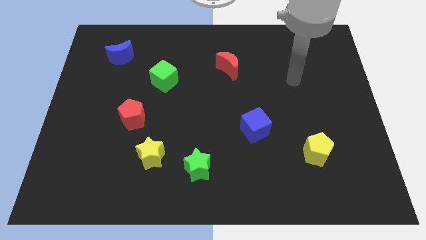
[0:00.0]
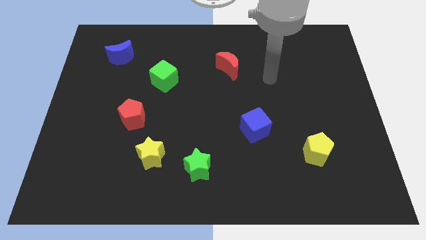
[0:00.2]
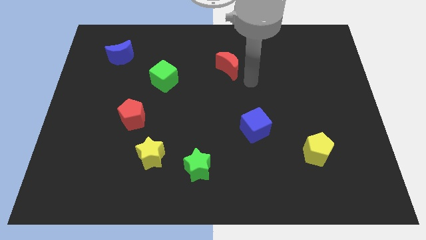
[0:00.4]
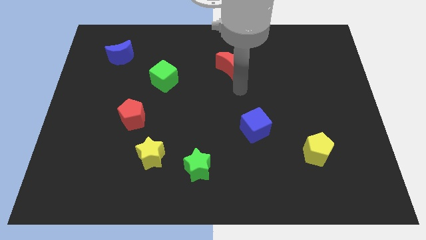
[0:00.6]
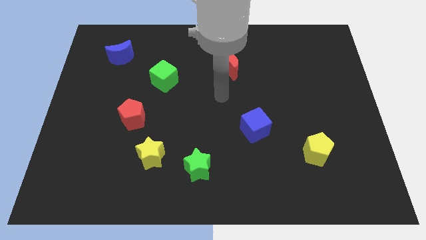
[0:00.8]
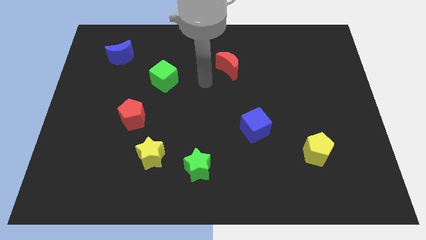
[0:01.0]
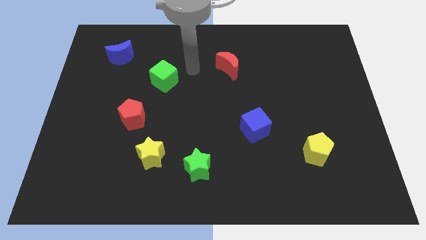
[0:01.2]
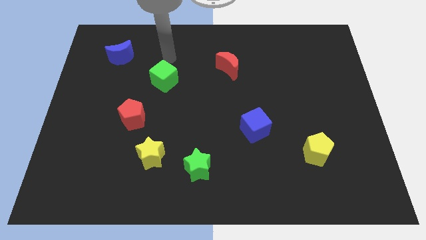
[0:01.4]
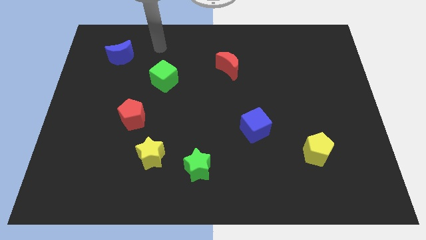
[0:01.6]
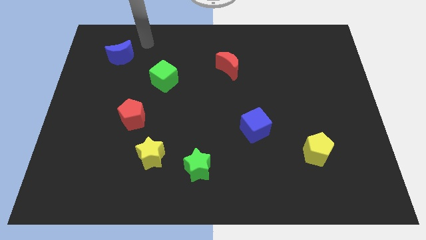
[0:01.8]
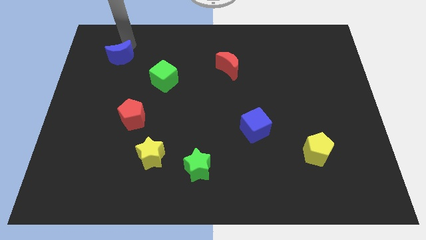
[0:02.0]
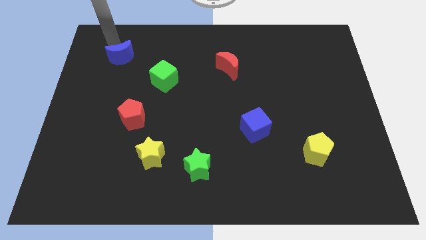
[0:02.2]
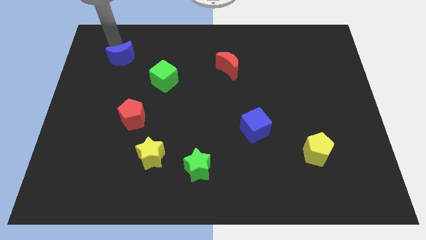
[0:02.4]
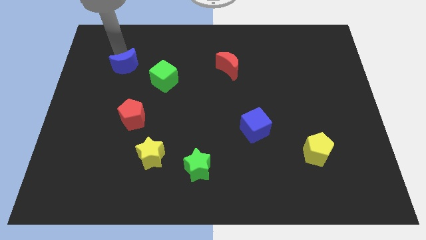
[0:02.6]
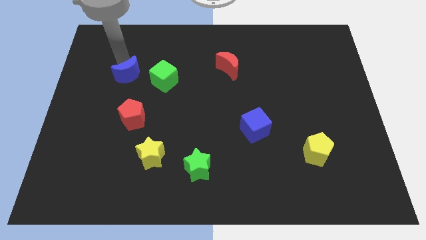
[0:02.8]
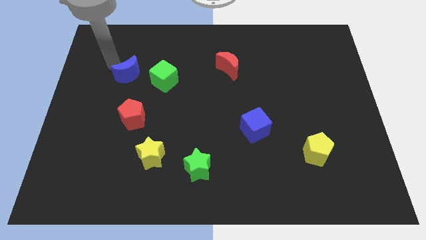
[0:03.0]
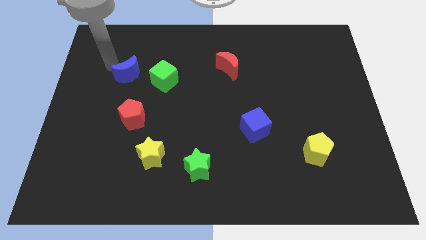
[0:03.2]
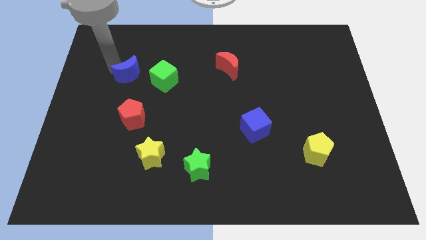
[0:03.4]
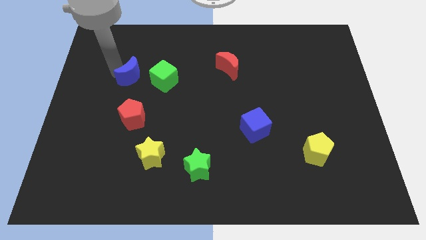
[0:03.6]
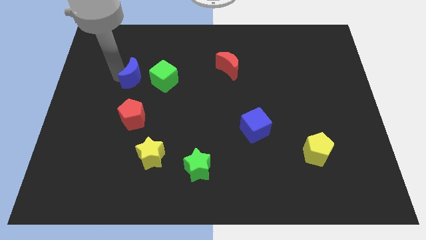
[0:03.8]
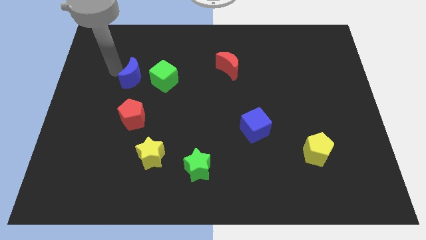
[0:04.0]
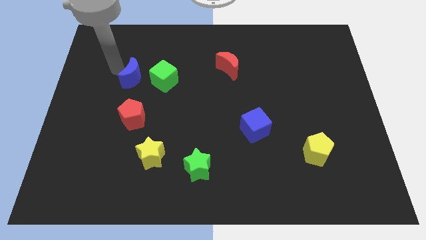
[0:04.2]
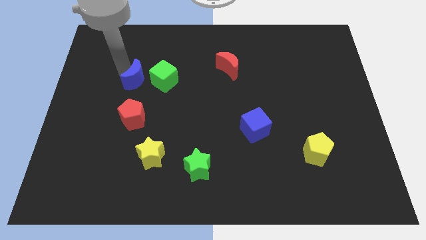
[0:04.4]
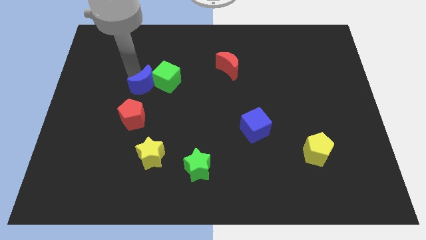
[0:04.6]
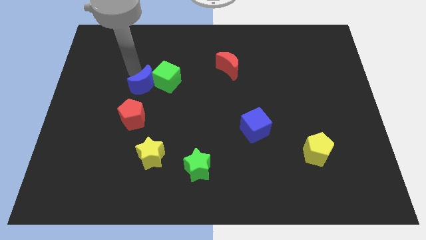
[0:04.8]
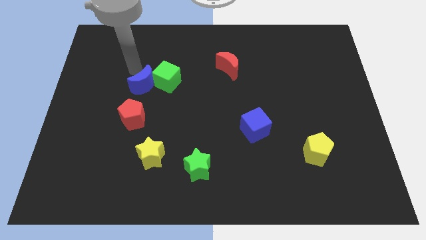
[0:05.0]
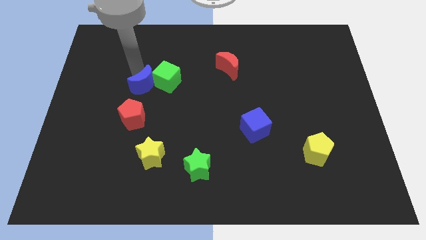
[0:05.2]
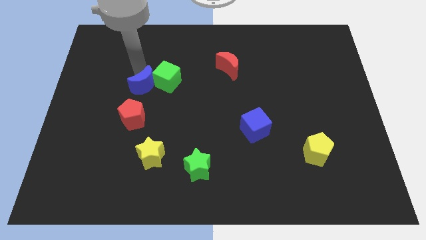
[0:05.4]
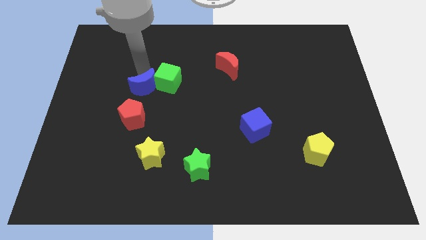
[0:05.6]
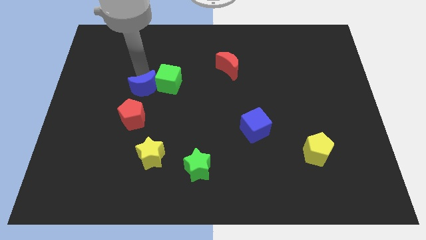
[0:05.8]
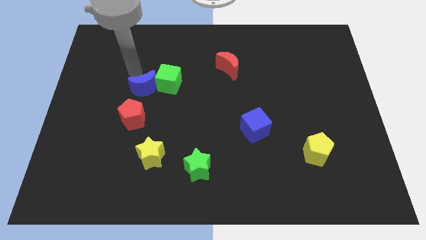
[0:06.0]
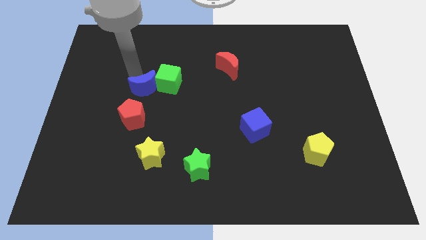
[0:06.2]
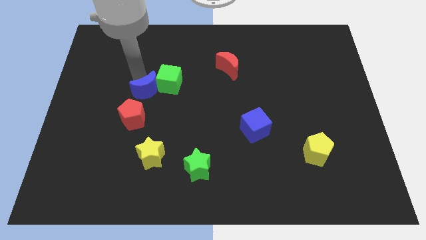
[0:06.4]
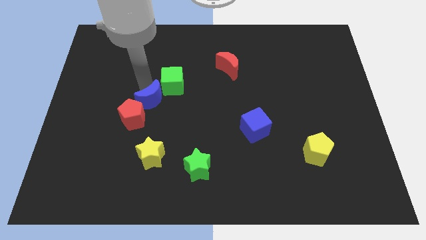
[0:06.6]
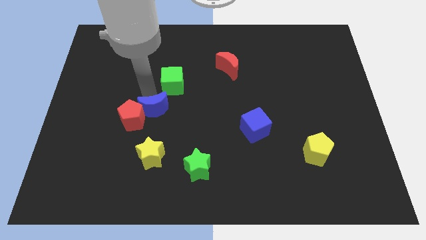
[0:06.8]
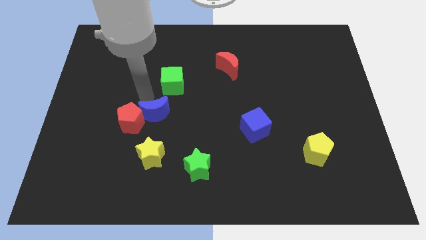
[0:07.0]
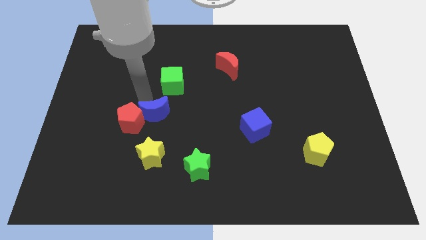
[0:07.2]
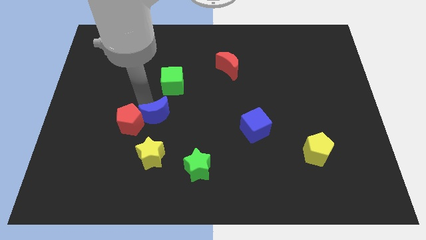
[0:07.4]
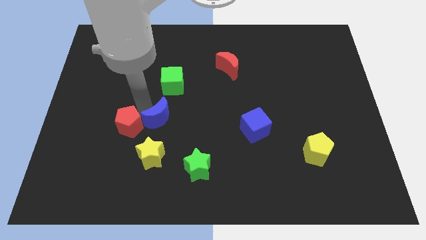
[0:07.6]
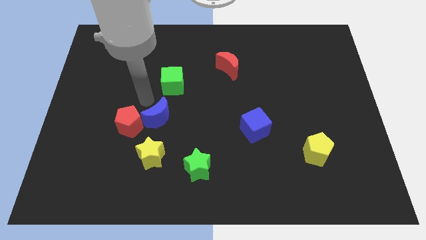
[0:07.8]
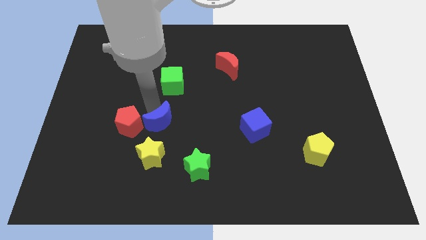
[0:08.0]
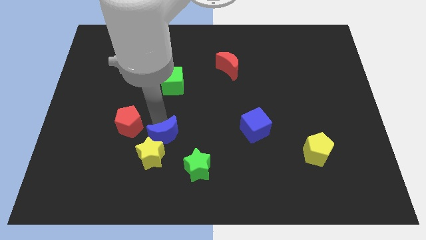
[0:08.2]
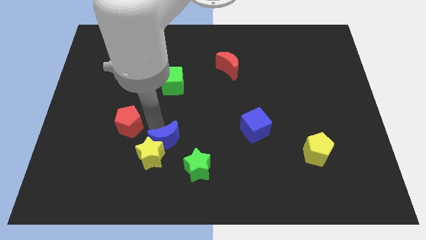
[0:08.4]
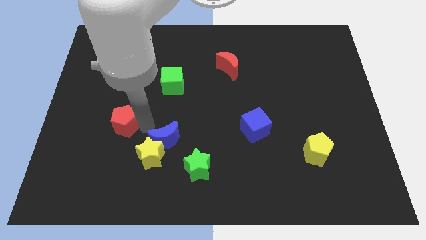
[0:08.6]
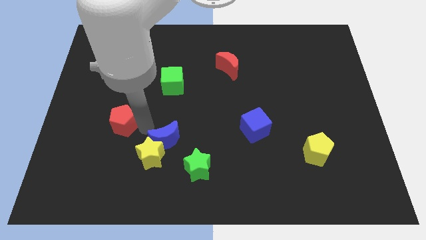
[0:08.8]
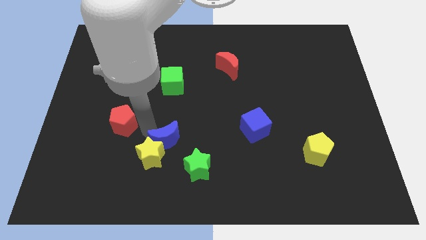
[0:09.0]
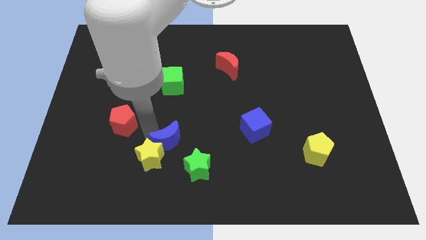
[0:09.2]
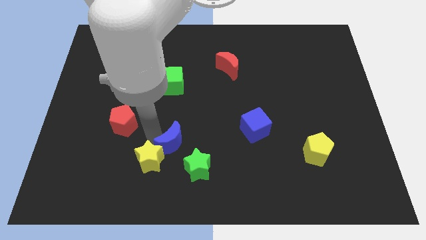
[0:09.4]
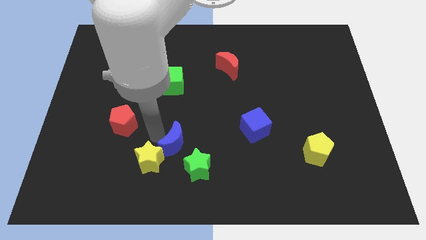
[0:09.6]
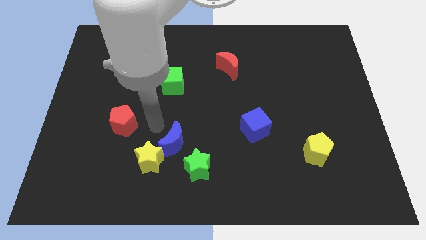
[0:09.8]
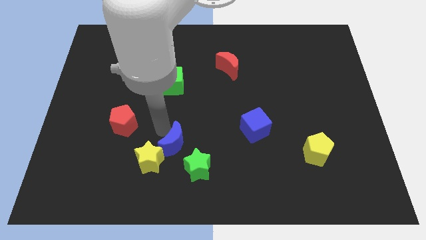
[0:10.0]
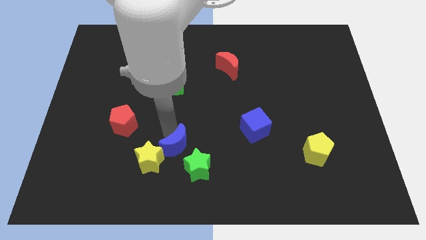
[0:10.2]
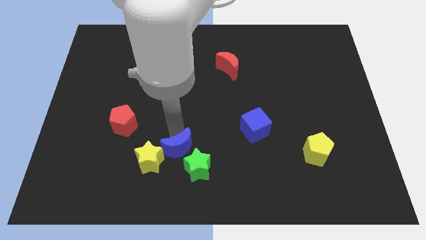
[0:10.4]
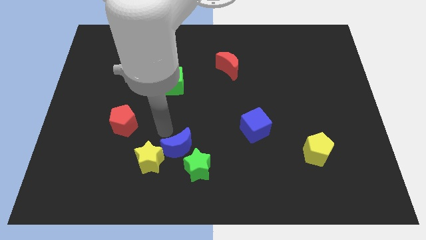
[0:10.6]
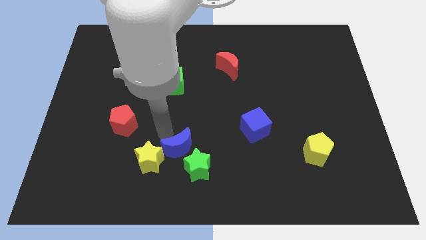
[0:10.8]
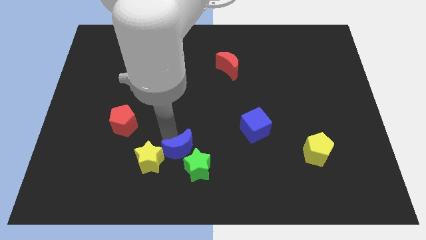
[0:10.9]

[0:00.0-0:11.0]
push the blue moon towards the green star

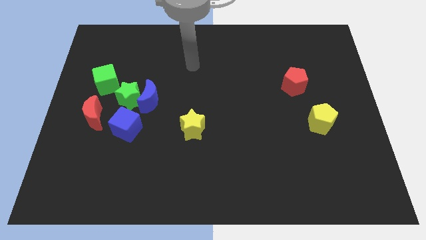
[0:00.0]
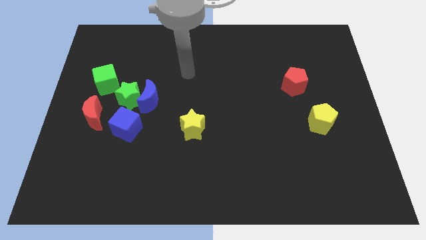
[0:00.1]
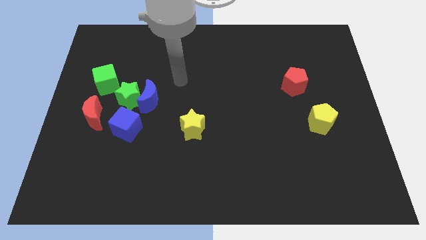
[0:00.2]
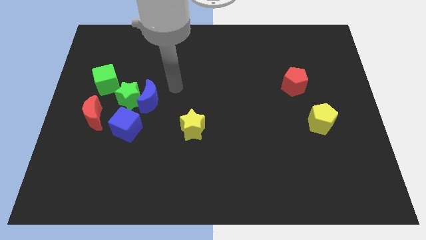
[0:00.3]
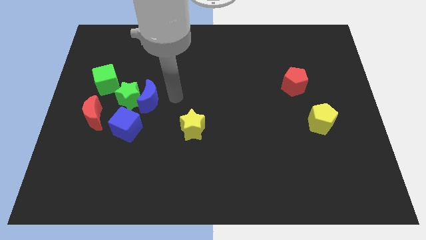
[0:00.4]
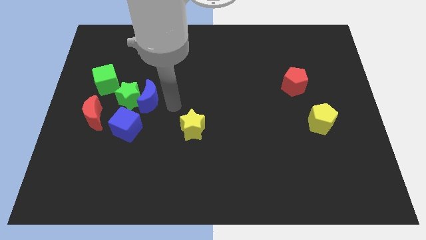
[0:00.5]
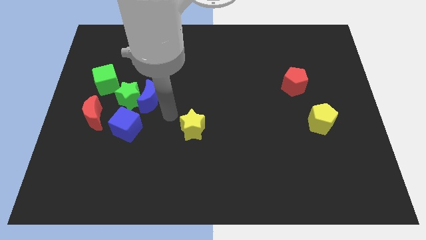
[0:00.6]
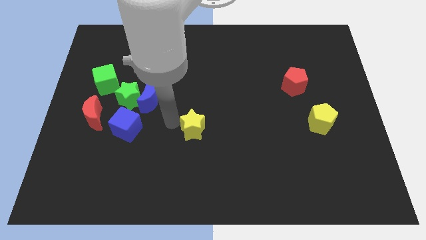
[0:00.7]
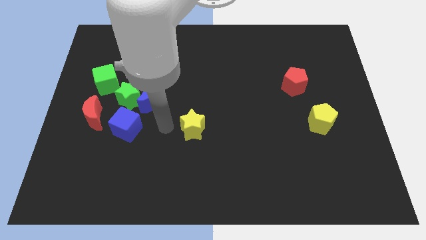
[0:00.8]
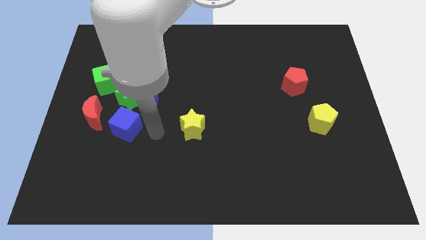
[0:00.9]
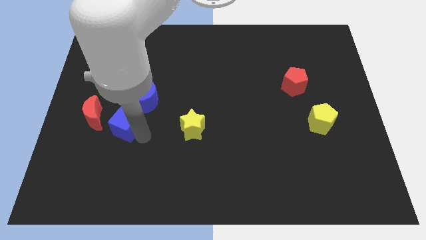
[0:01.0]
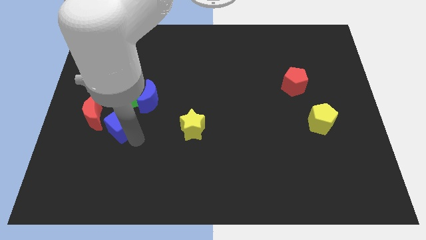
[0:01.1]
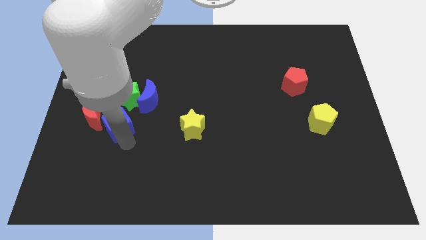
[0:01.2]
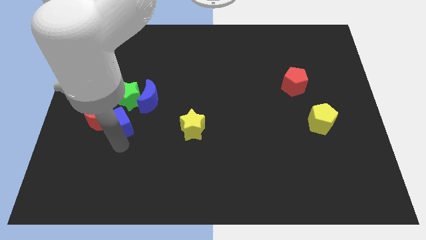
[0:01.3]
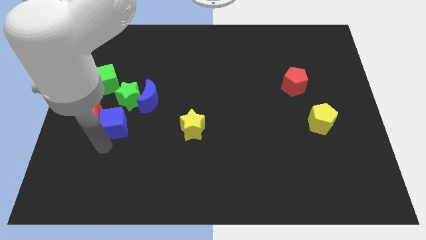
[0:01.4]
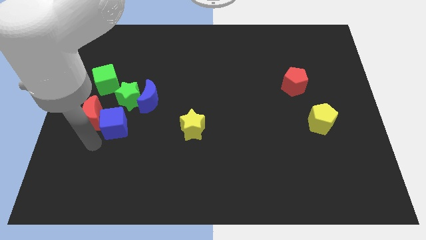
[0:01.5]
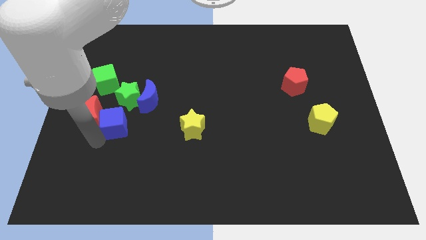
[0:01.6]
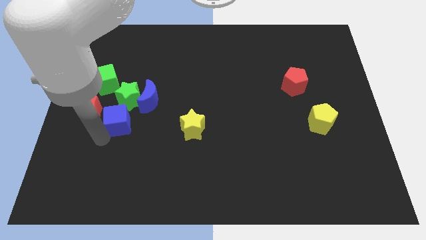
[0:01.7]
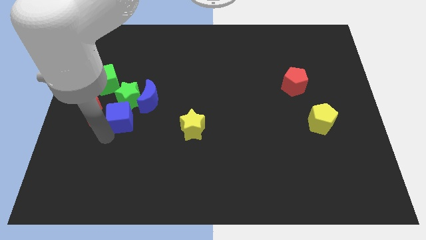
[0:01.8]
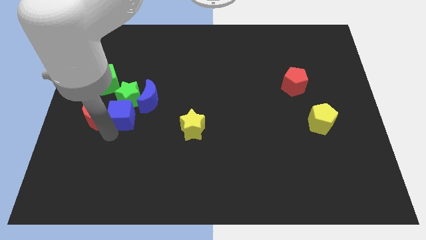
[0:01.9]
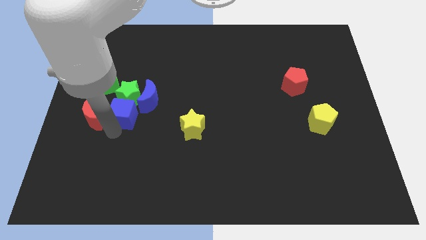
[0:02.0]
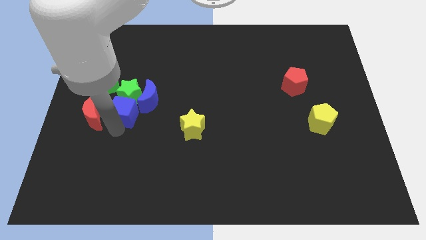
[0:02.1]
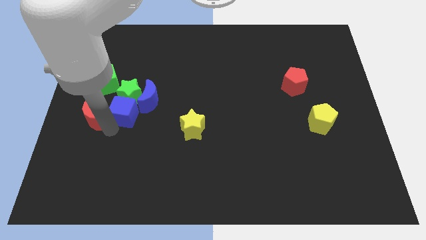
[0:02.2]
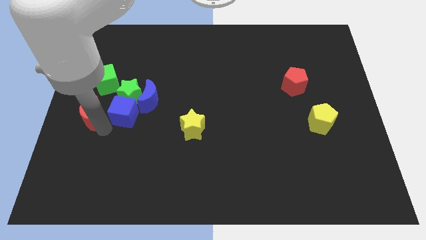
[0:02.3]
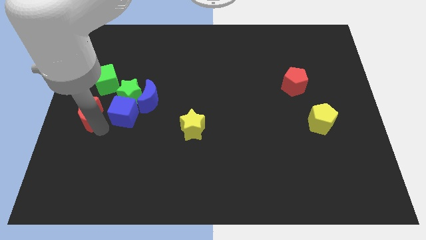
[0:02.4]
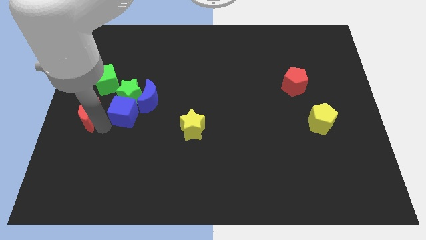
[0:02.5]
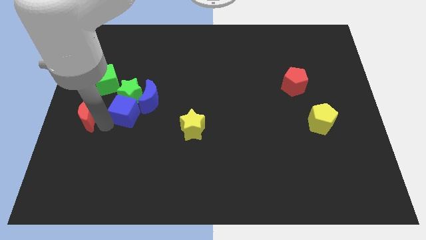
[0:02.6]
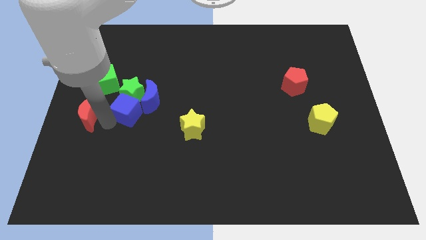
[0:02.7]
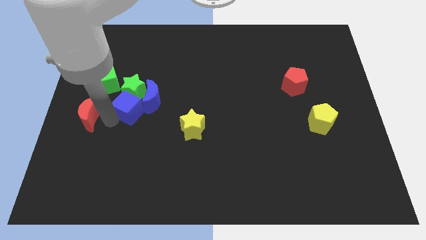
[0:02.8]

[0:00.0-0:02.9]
move the blue cube towards the blue moon
